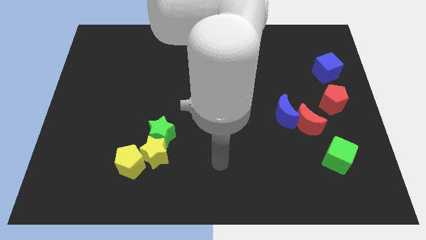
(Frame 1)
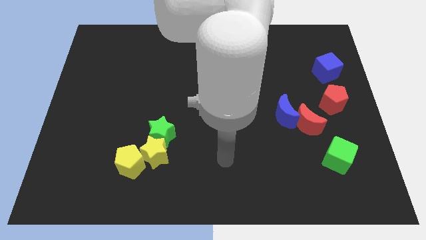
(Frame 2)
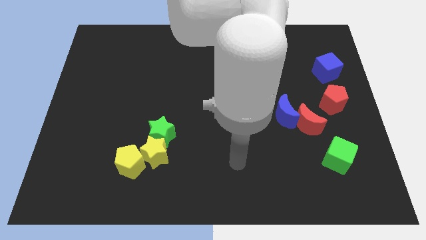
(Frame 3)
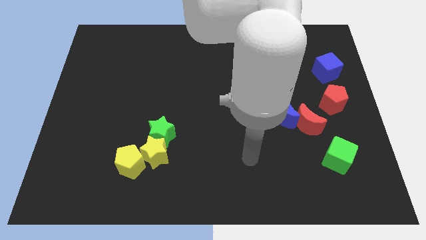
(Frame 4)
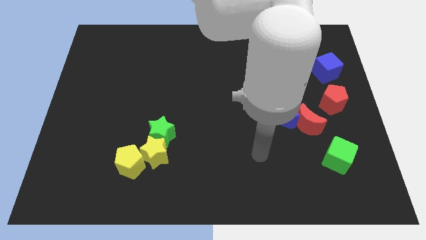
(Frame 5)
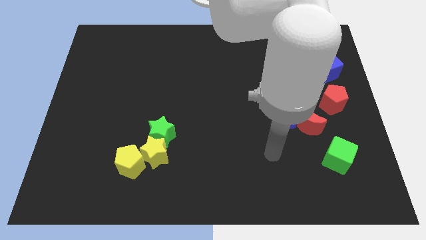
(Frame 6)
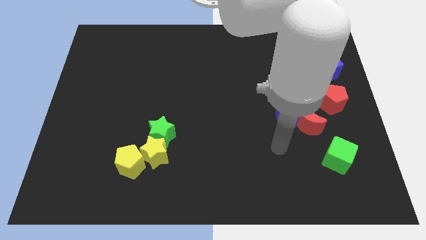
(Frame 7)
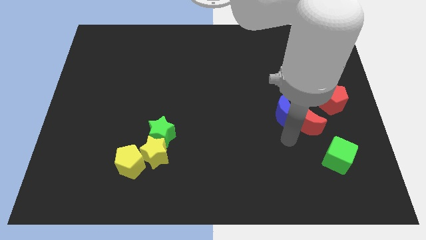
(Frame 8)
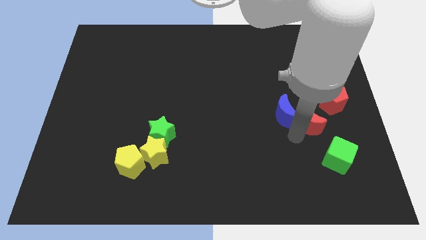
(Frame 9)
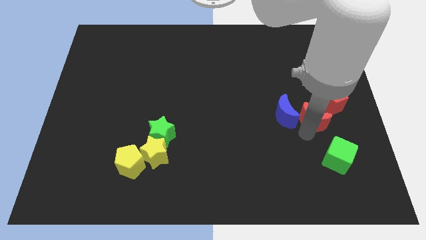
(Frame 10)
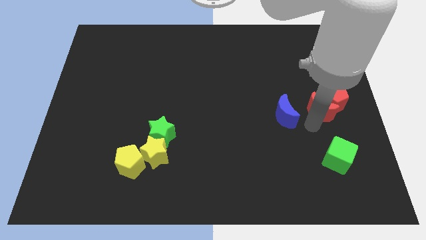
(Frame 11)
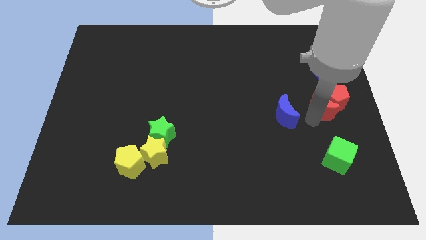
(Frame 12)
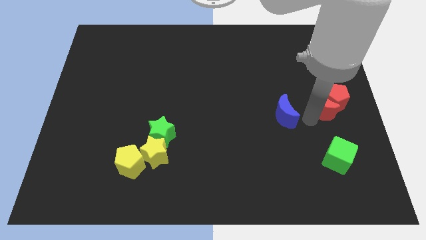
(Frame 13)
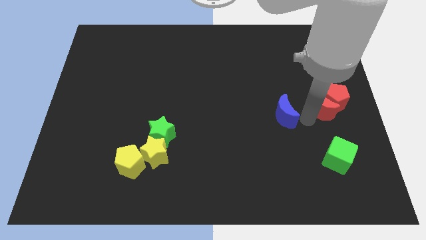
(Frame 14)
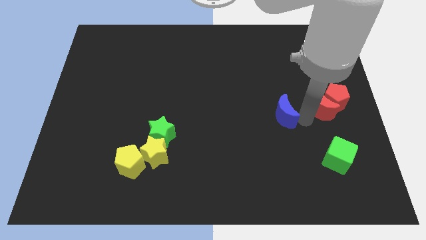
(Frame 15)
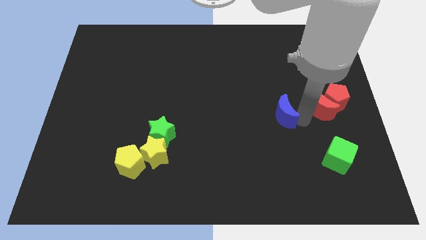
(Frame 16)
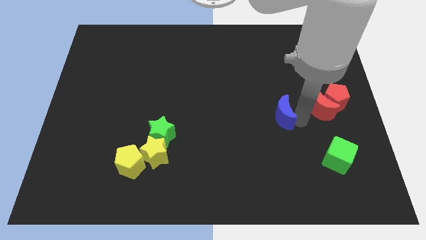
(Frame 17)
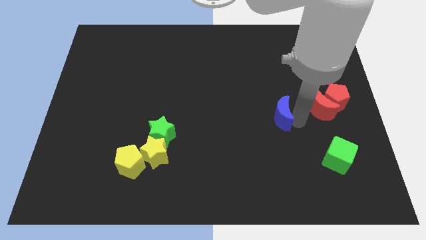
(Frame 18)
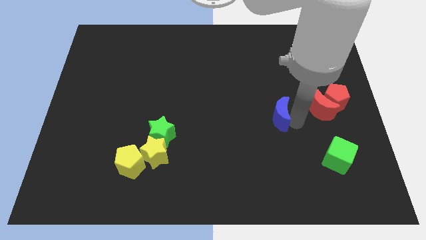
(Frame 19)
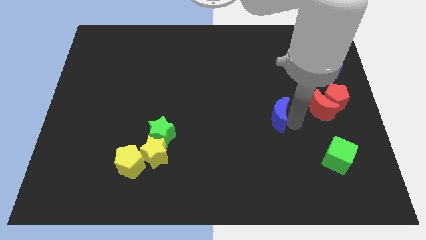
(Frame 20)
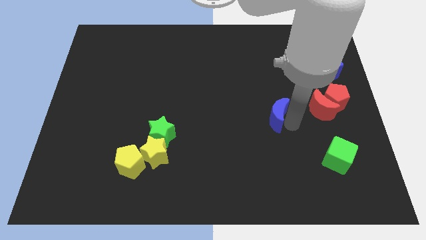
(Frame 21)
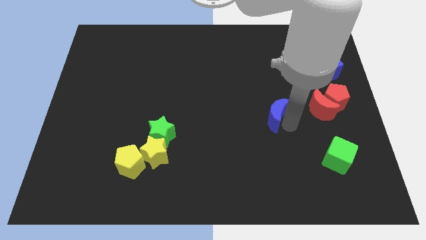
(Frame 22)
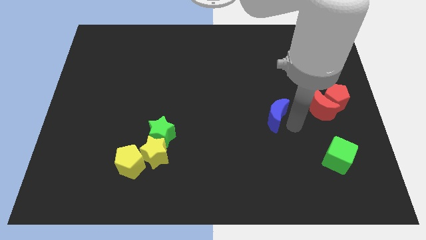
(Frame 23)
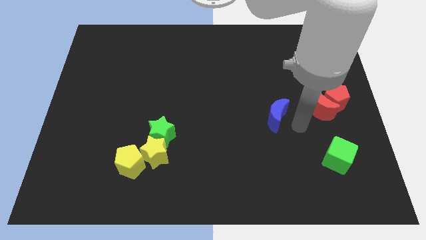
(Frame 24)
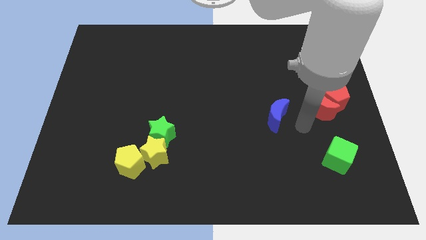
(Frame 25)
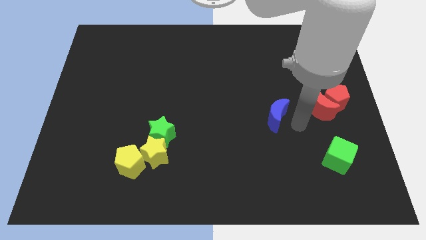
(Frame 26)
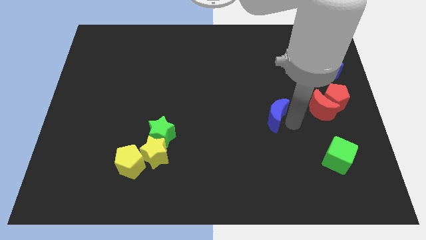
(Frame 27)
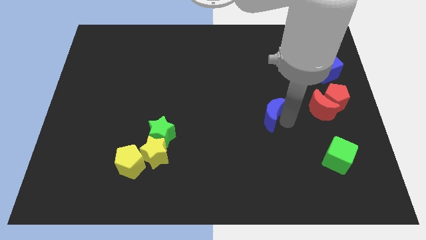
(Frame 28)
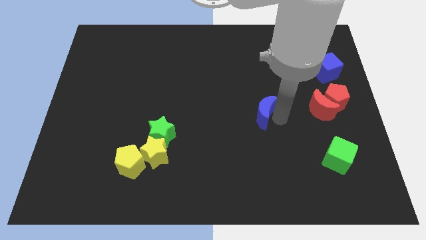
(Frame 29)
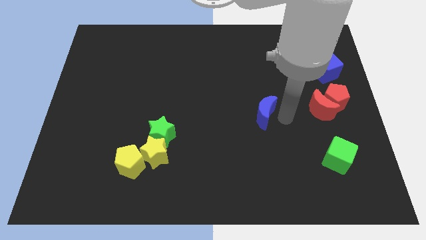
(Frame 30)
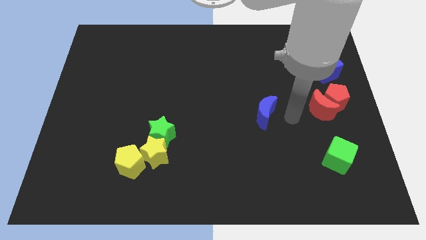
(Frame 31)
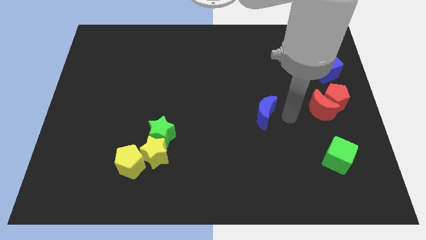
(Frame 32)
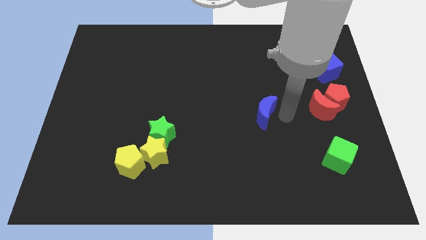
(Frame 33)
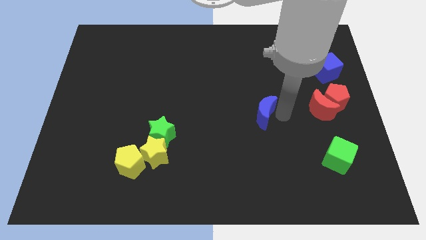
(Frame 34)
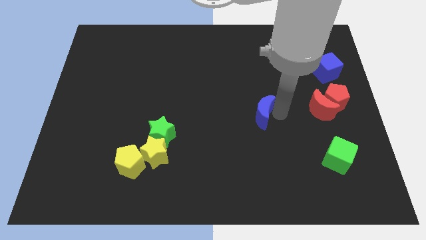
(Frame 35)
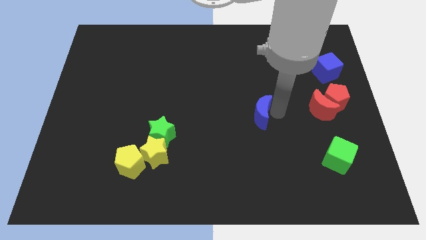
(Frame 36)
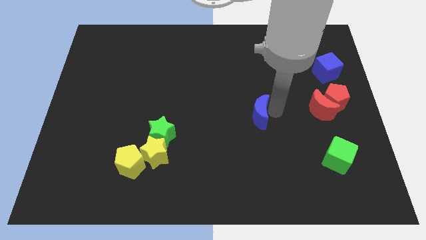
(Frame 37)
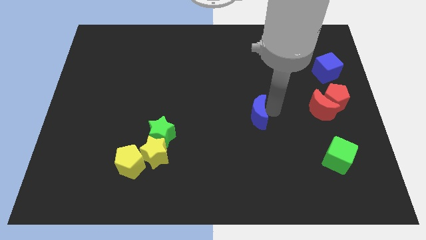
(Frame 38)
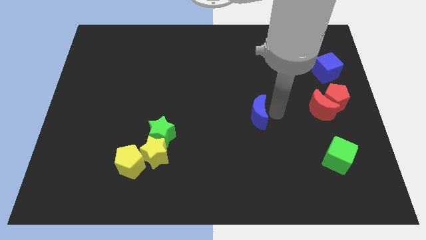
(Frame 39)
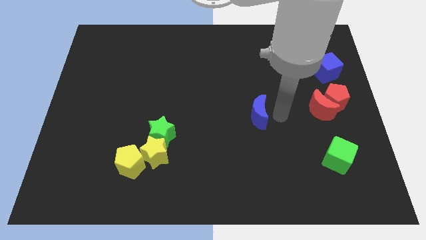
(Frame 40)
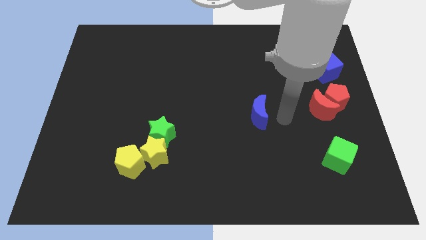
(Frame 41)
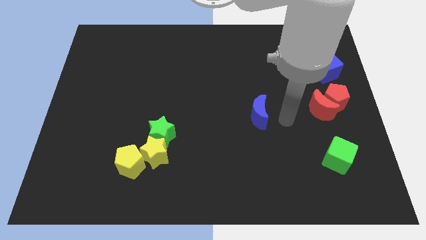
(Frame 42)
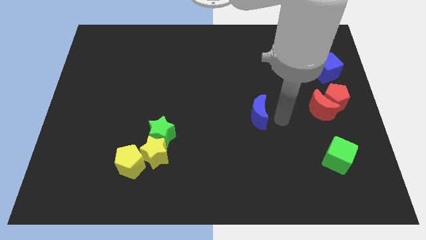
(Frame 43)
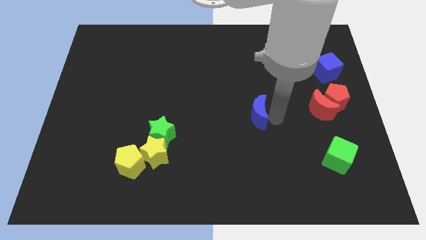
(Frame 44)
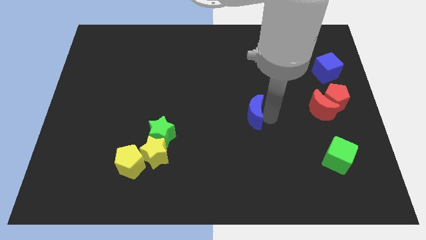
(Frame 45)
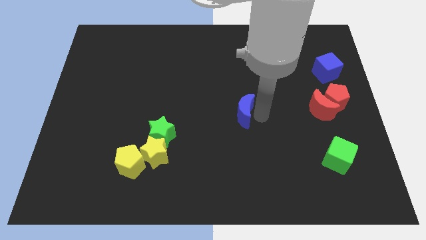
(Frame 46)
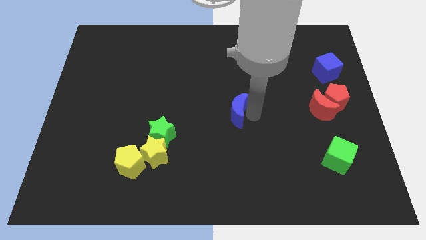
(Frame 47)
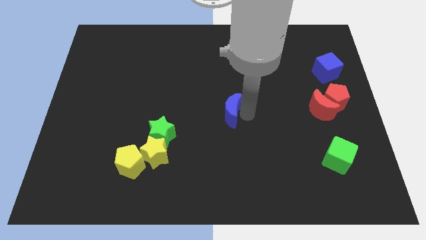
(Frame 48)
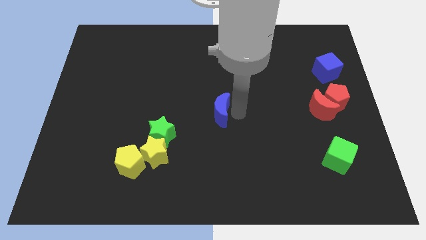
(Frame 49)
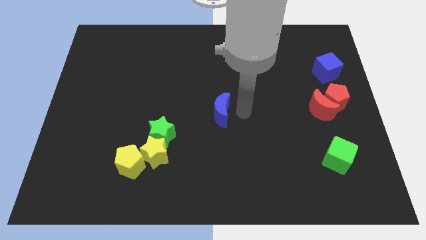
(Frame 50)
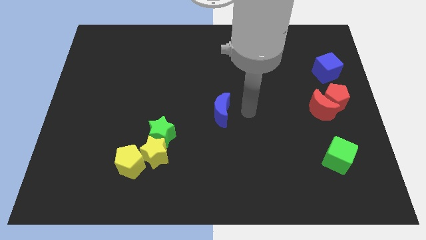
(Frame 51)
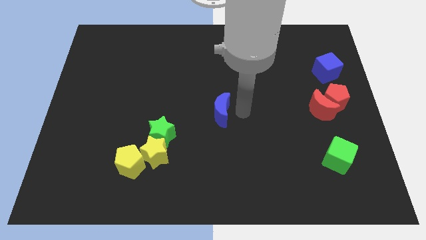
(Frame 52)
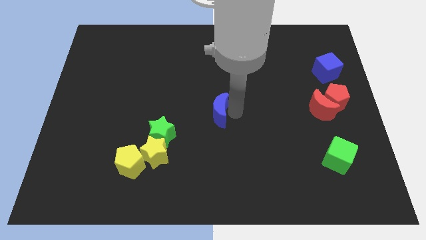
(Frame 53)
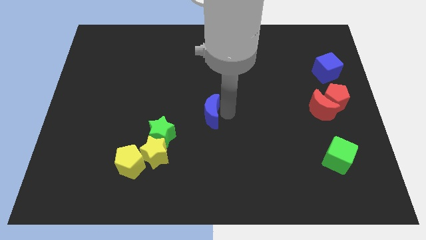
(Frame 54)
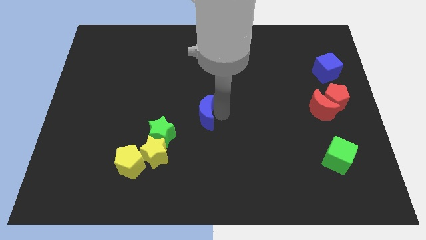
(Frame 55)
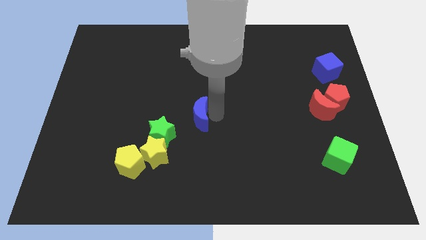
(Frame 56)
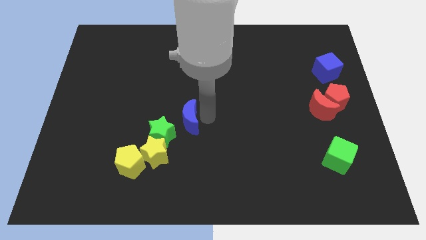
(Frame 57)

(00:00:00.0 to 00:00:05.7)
move the blue moon left

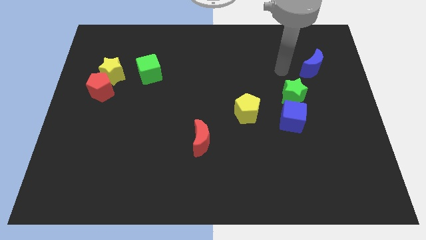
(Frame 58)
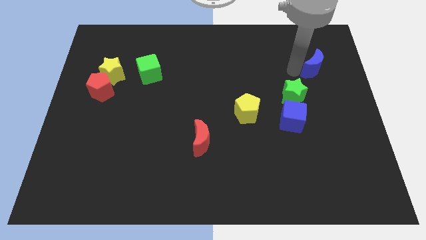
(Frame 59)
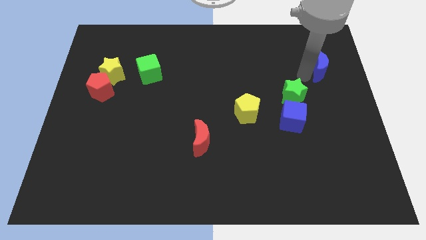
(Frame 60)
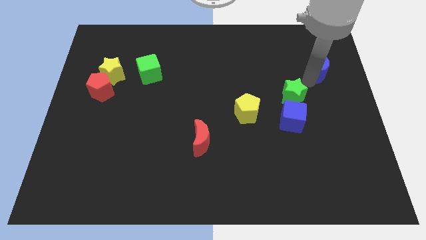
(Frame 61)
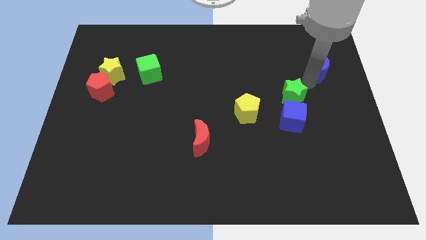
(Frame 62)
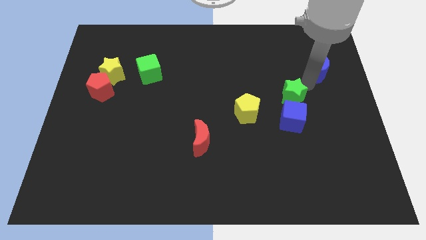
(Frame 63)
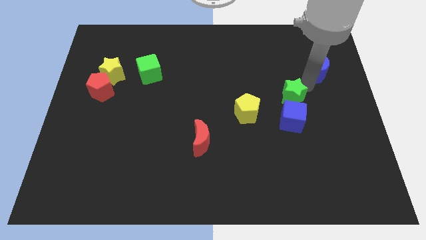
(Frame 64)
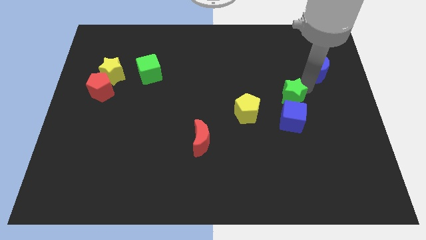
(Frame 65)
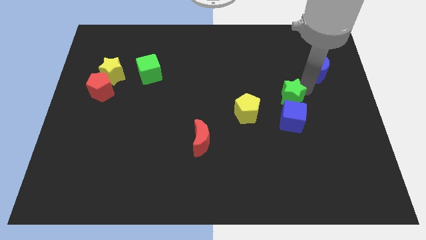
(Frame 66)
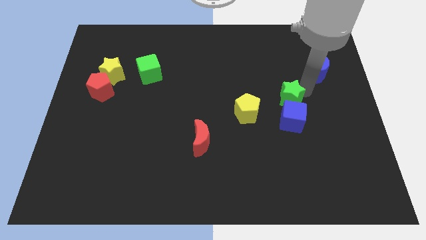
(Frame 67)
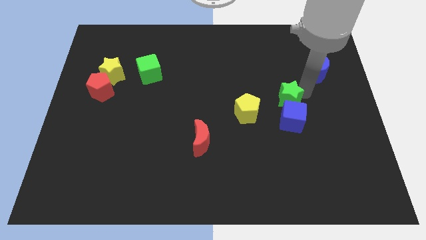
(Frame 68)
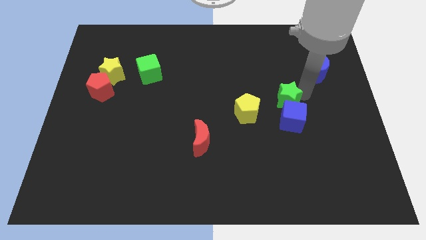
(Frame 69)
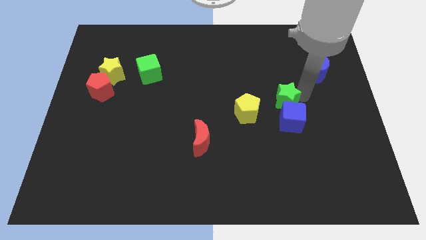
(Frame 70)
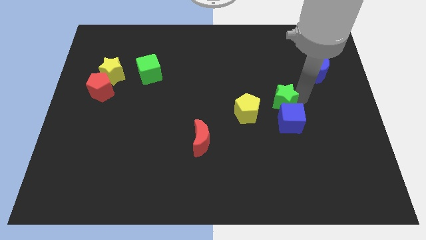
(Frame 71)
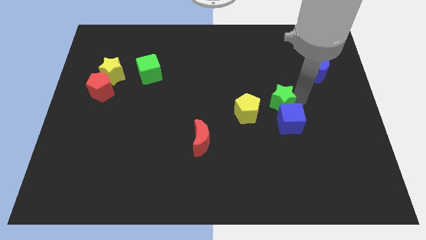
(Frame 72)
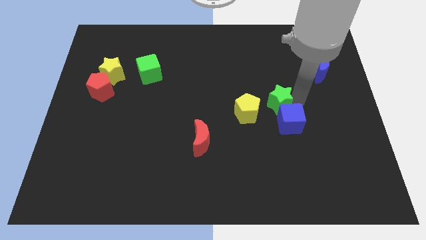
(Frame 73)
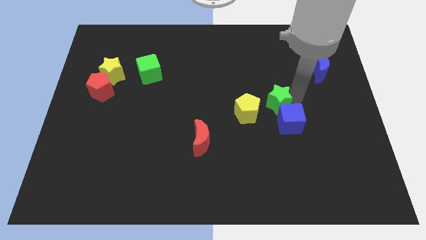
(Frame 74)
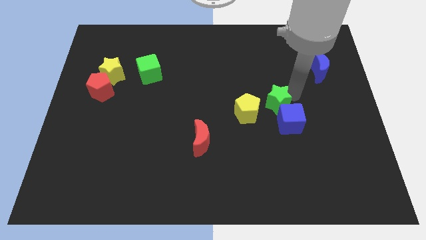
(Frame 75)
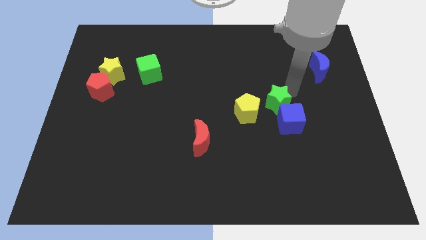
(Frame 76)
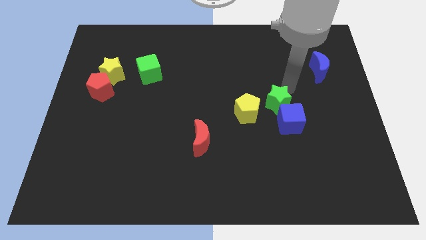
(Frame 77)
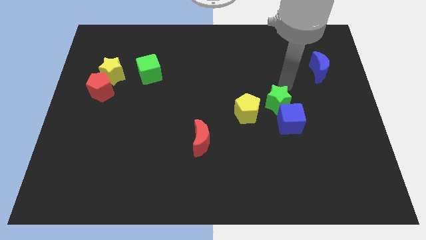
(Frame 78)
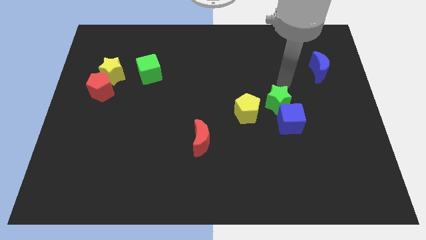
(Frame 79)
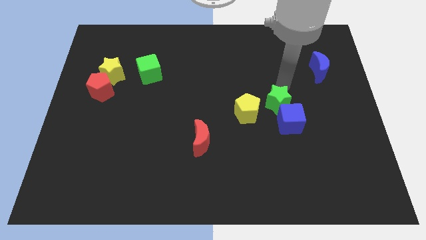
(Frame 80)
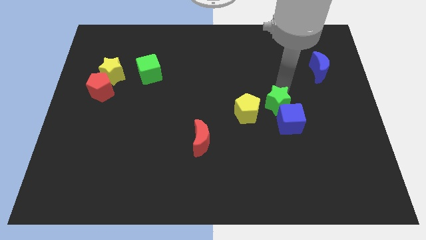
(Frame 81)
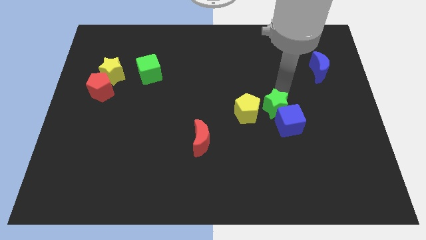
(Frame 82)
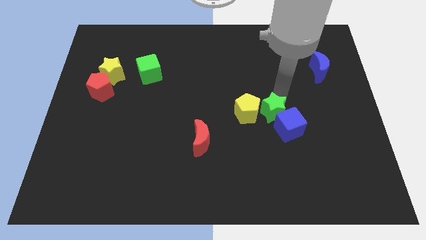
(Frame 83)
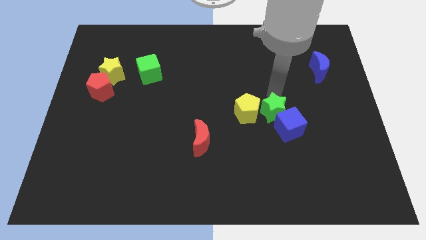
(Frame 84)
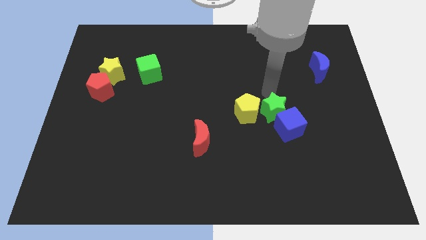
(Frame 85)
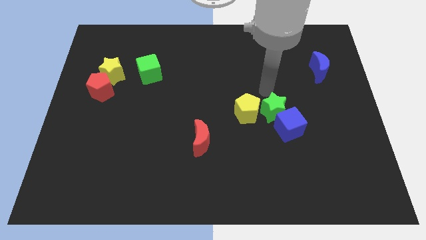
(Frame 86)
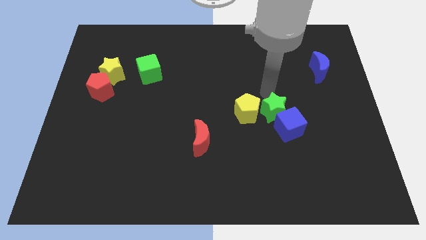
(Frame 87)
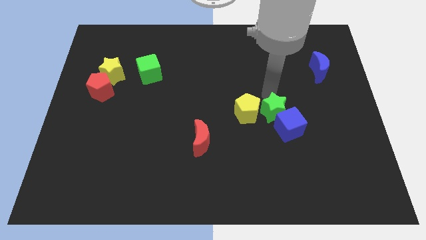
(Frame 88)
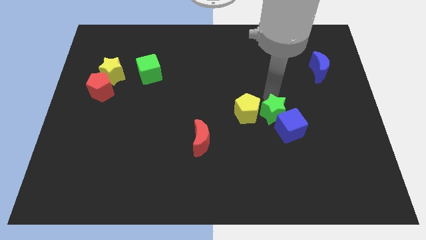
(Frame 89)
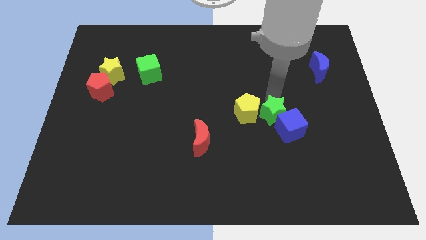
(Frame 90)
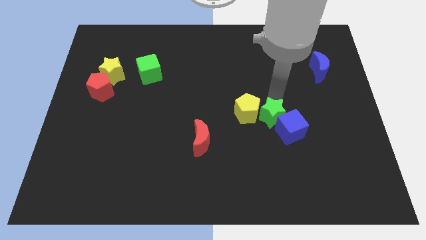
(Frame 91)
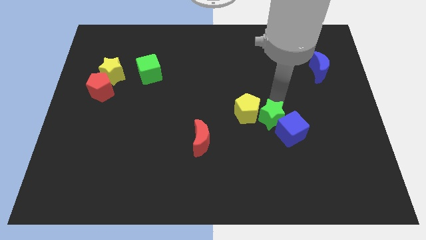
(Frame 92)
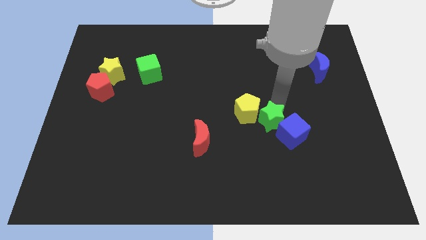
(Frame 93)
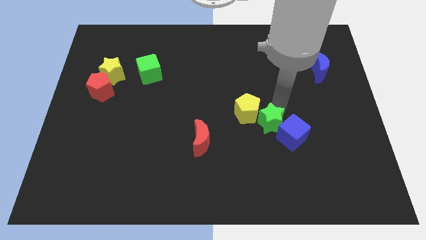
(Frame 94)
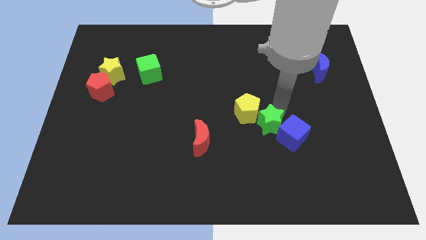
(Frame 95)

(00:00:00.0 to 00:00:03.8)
push the green star somewhat down
